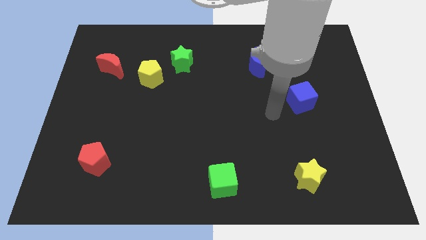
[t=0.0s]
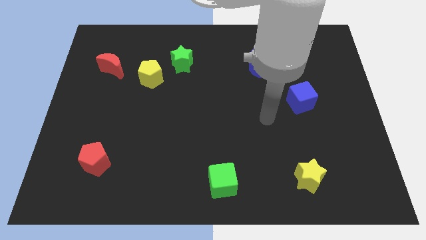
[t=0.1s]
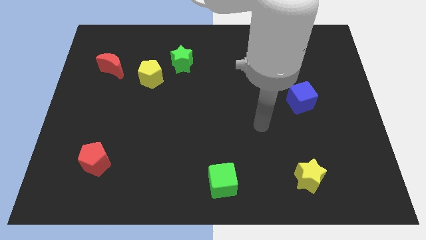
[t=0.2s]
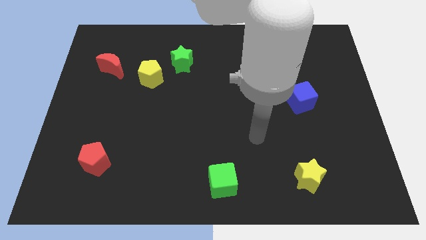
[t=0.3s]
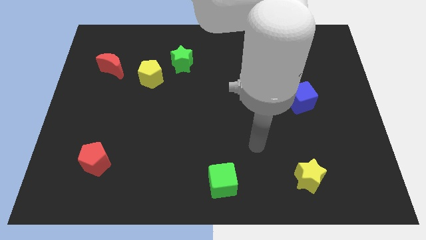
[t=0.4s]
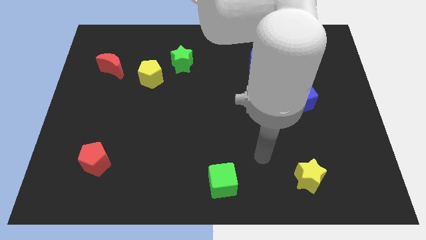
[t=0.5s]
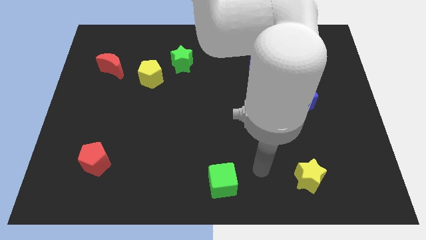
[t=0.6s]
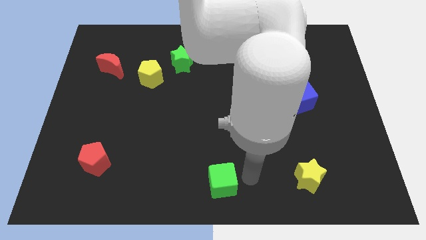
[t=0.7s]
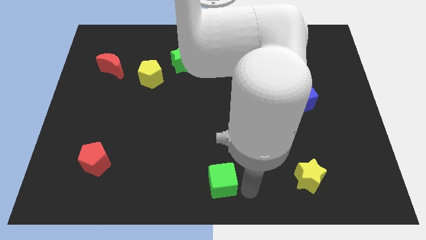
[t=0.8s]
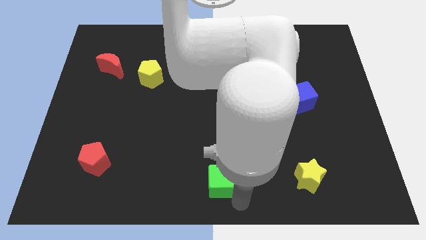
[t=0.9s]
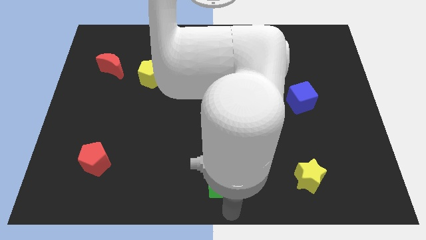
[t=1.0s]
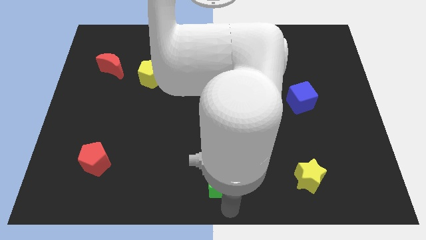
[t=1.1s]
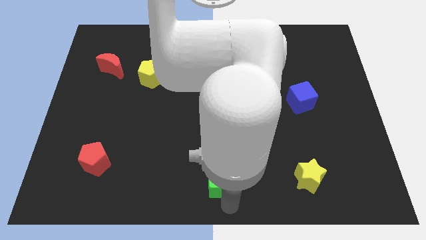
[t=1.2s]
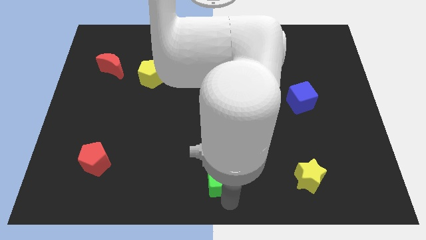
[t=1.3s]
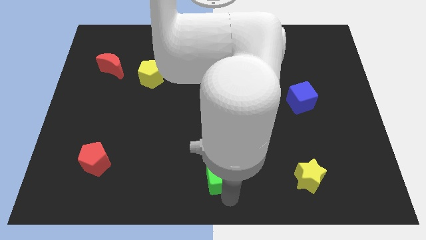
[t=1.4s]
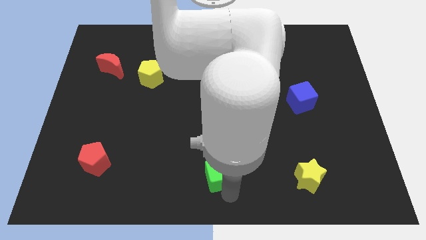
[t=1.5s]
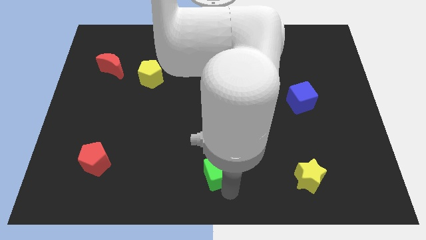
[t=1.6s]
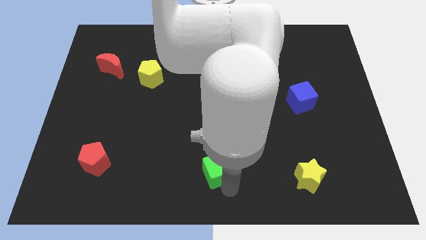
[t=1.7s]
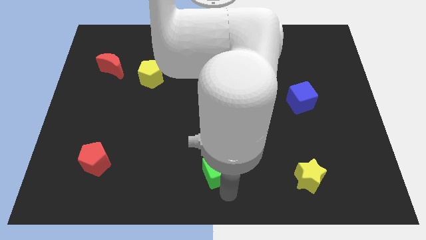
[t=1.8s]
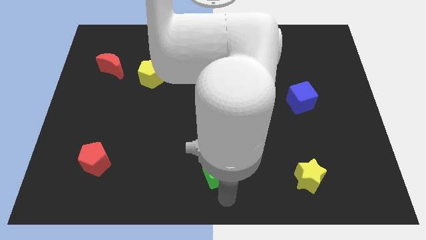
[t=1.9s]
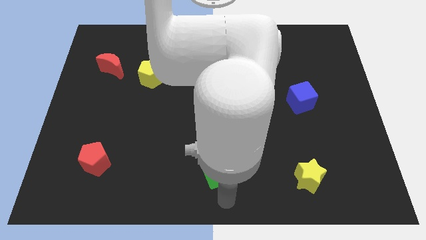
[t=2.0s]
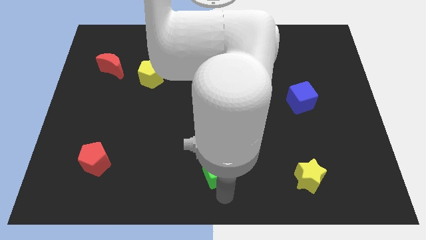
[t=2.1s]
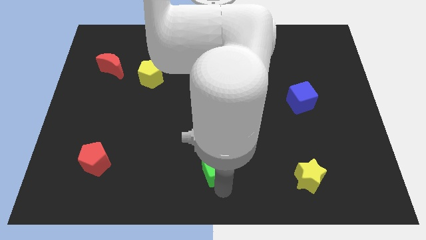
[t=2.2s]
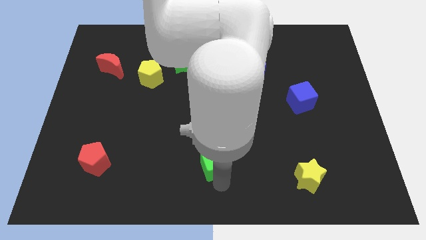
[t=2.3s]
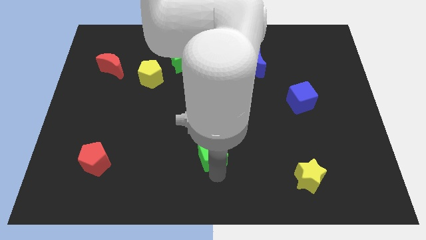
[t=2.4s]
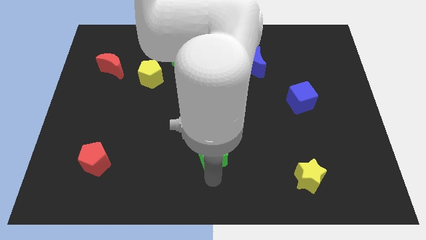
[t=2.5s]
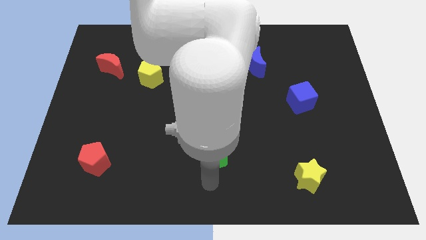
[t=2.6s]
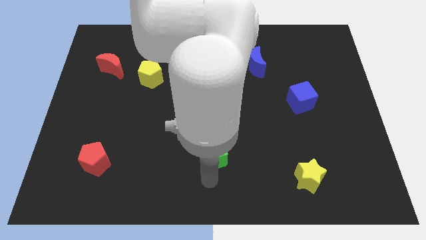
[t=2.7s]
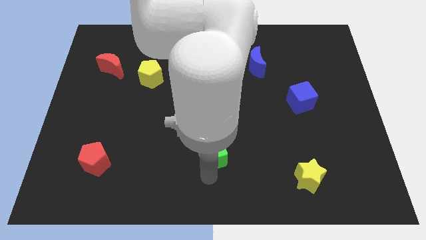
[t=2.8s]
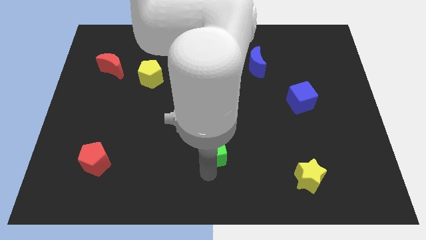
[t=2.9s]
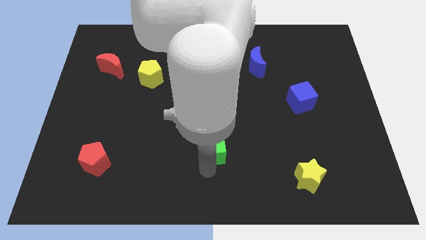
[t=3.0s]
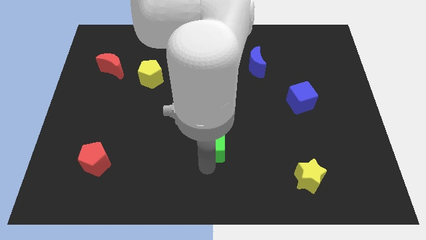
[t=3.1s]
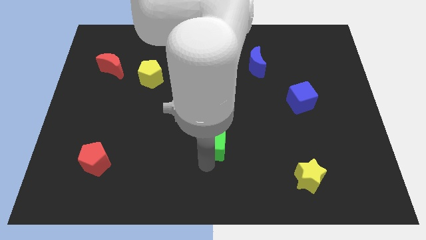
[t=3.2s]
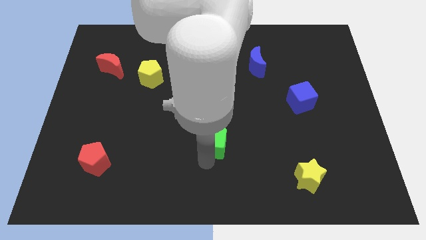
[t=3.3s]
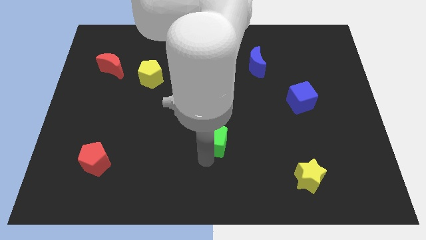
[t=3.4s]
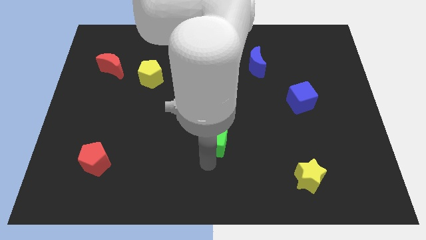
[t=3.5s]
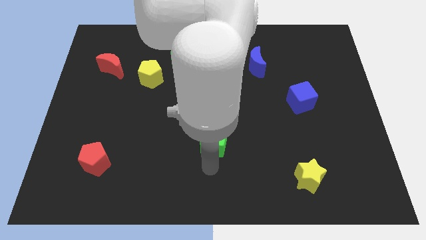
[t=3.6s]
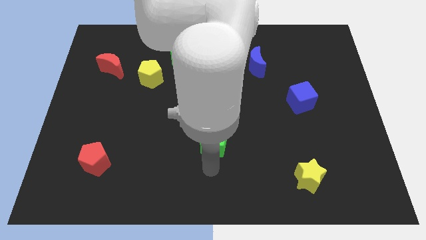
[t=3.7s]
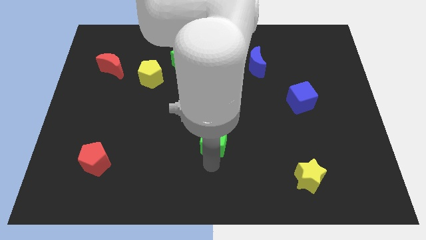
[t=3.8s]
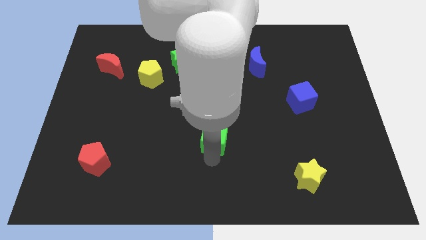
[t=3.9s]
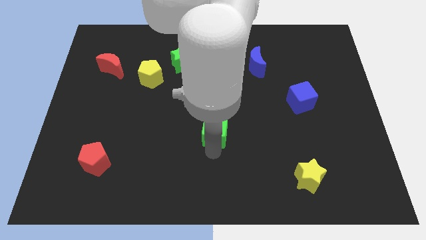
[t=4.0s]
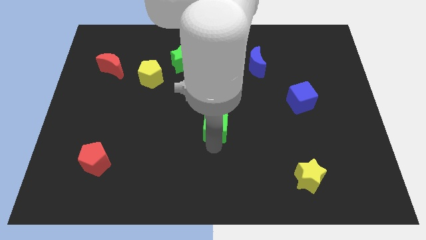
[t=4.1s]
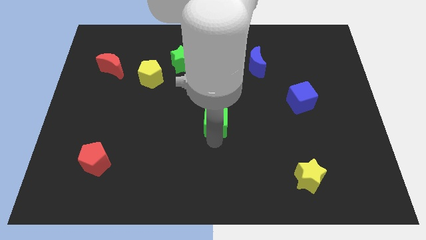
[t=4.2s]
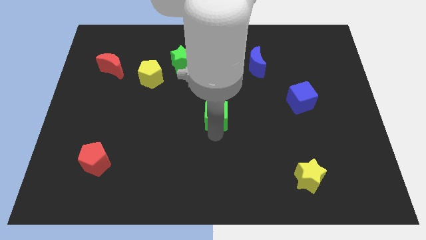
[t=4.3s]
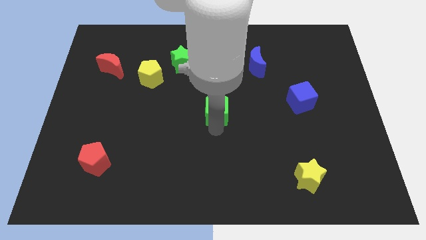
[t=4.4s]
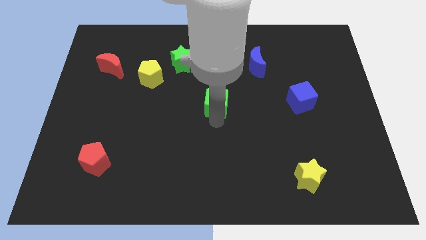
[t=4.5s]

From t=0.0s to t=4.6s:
slide the green cube up

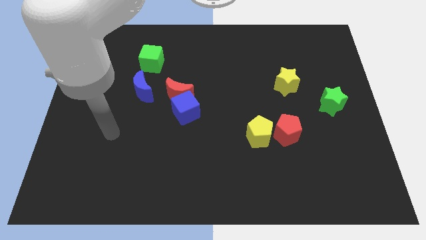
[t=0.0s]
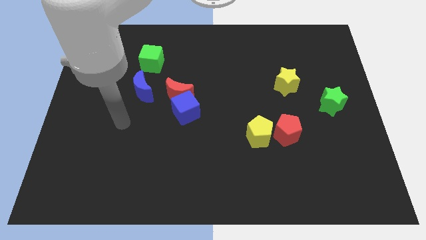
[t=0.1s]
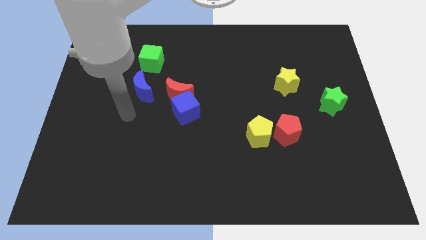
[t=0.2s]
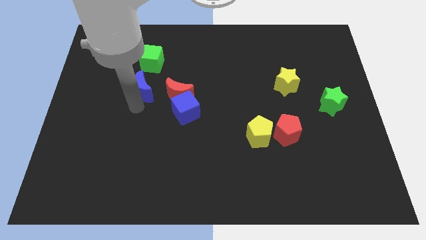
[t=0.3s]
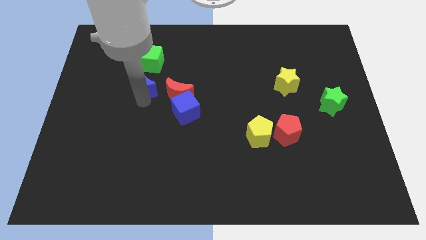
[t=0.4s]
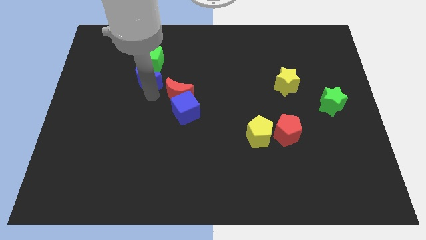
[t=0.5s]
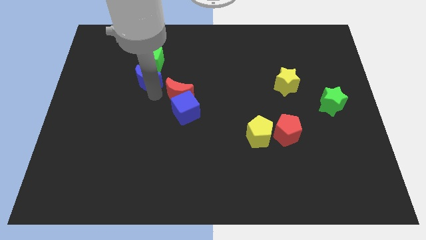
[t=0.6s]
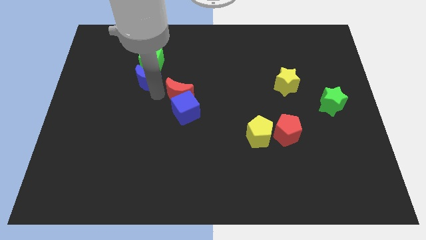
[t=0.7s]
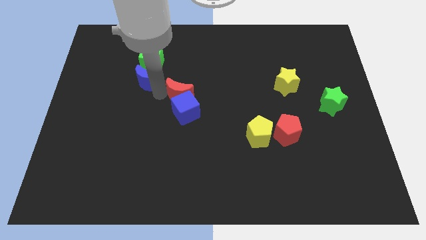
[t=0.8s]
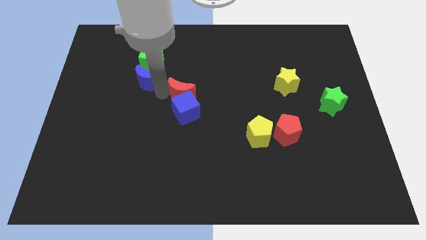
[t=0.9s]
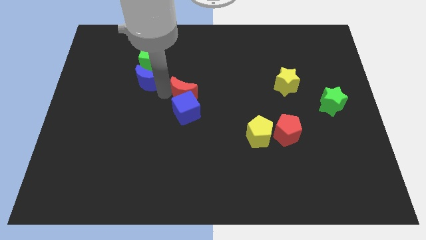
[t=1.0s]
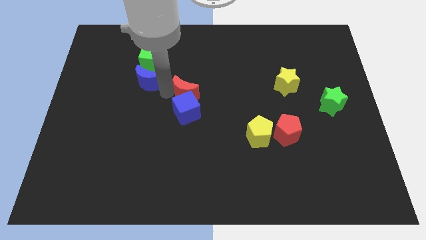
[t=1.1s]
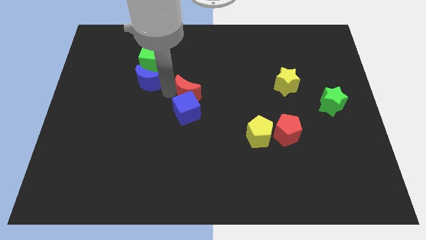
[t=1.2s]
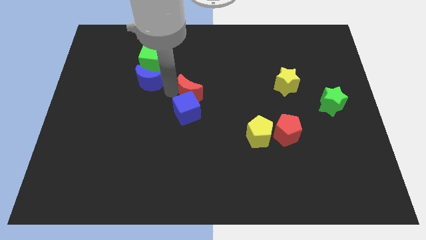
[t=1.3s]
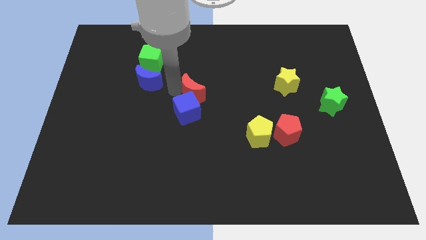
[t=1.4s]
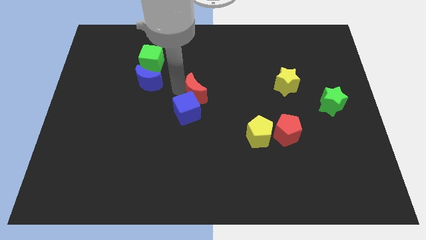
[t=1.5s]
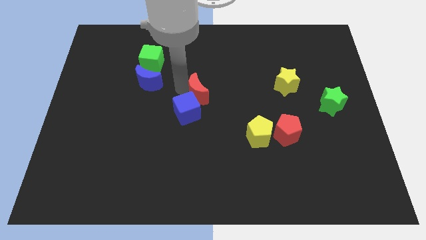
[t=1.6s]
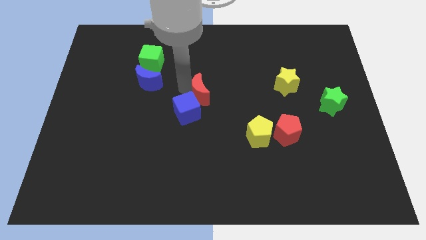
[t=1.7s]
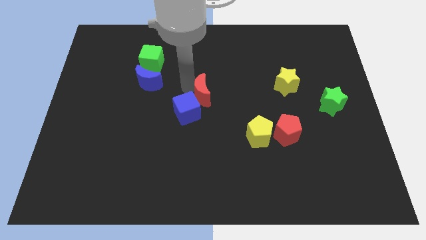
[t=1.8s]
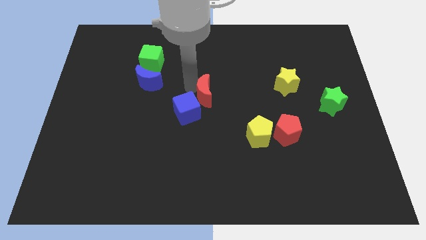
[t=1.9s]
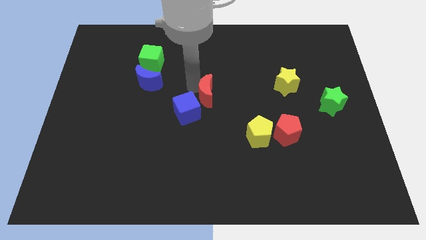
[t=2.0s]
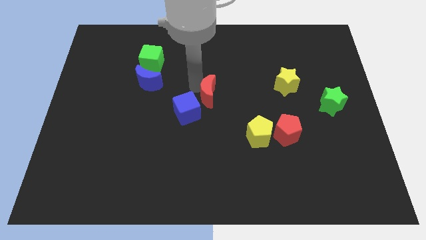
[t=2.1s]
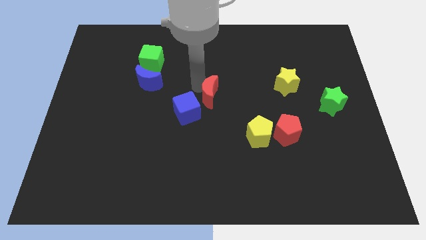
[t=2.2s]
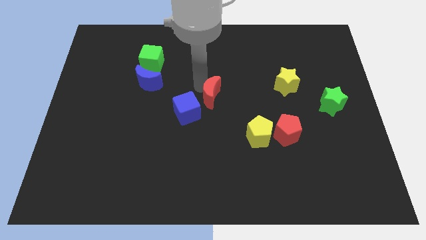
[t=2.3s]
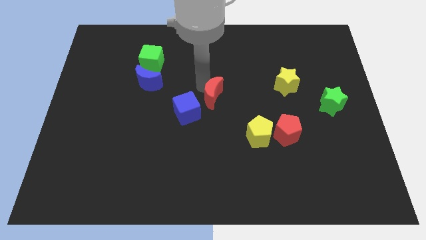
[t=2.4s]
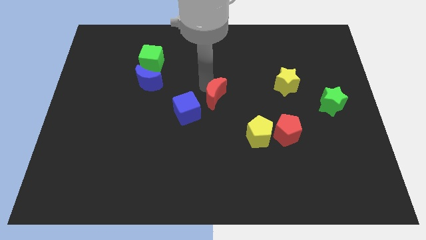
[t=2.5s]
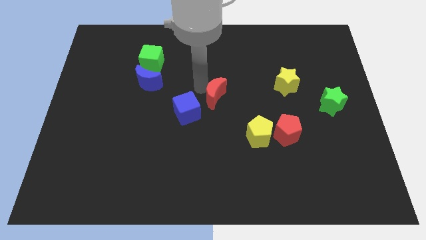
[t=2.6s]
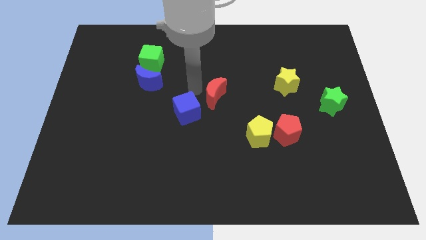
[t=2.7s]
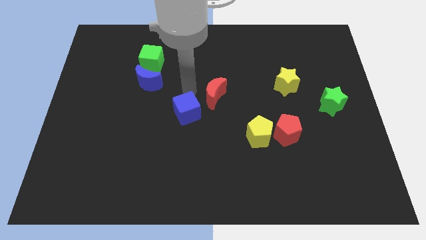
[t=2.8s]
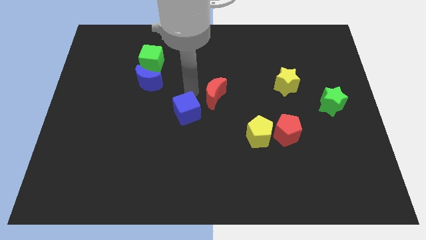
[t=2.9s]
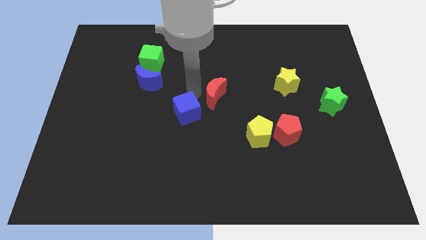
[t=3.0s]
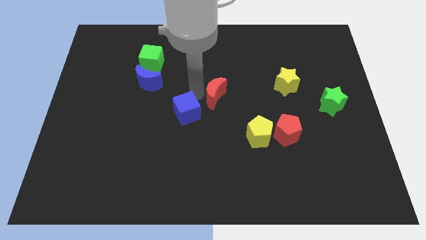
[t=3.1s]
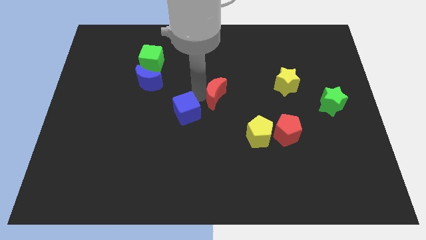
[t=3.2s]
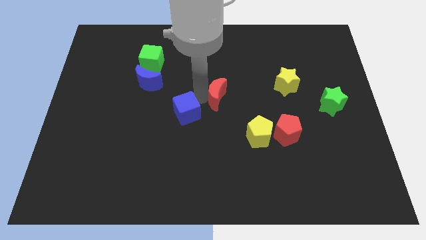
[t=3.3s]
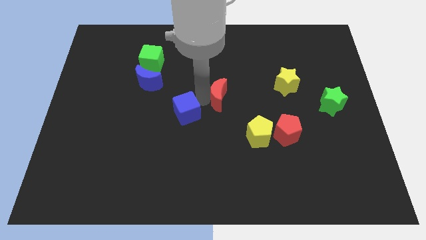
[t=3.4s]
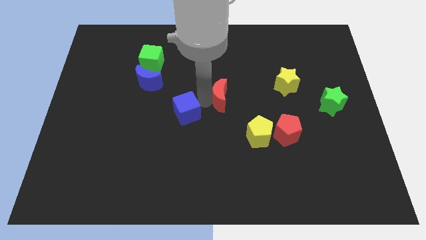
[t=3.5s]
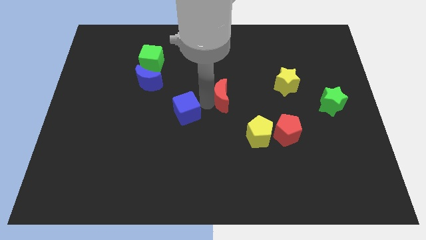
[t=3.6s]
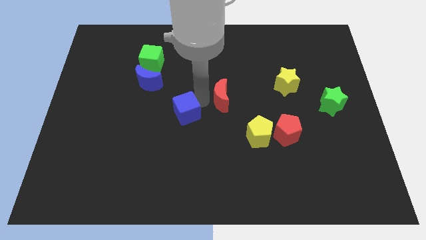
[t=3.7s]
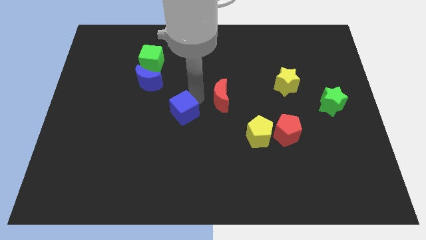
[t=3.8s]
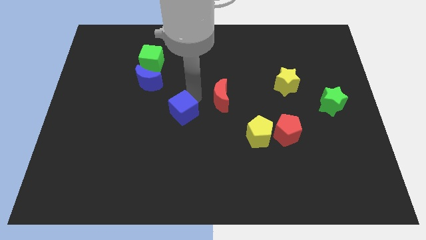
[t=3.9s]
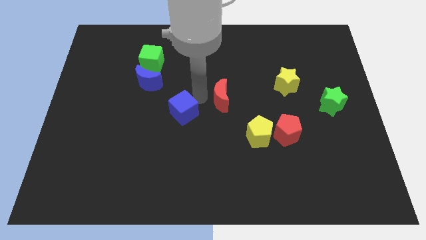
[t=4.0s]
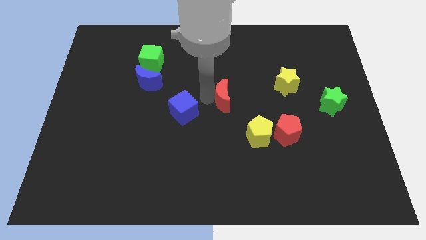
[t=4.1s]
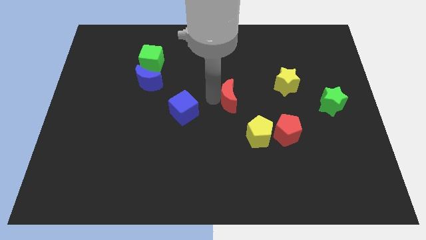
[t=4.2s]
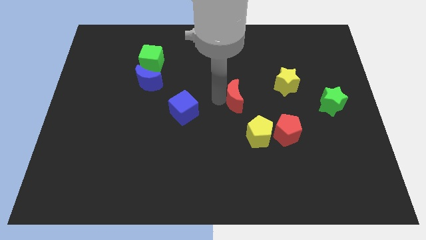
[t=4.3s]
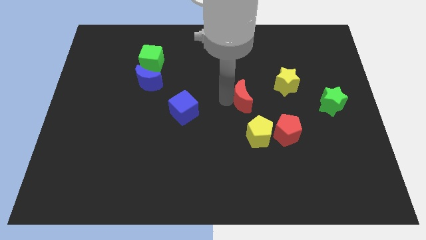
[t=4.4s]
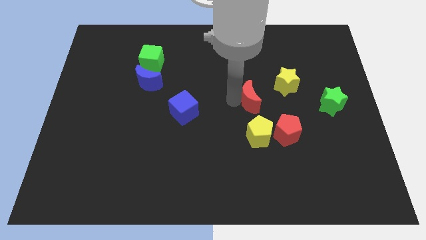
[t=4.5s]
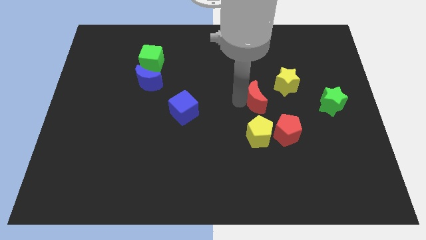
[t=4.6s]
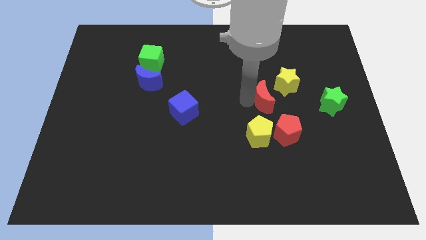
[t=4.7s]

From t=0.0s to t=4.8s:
slide the red moon to the right
